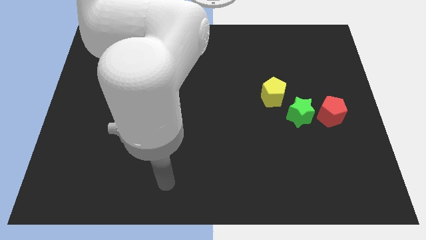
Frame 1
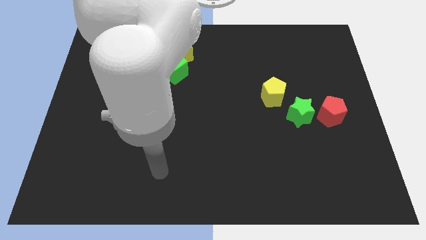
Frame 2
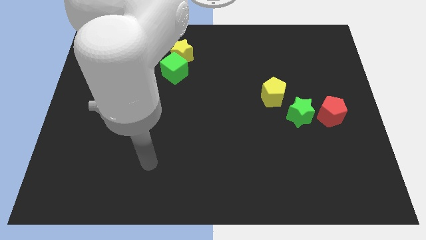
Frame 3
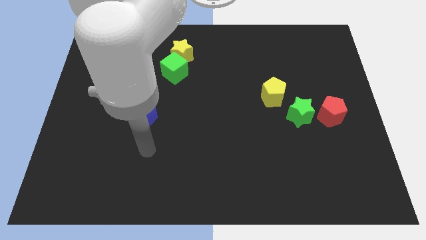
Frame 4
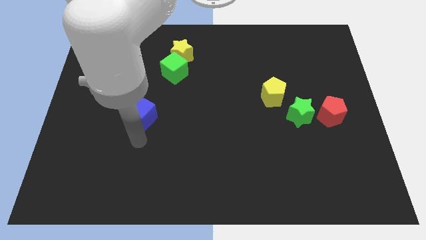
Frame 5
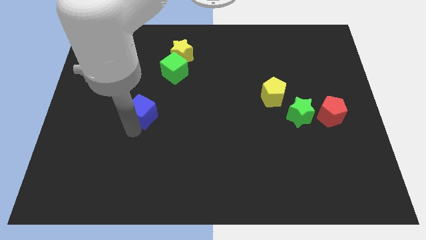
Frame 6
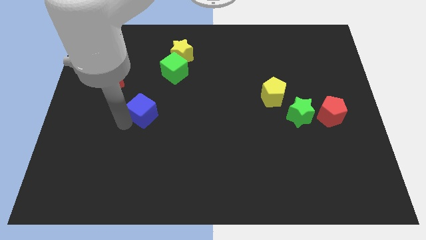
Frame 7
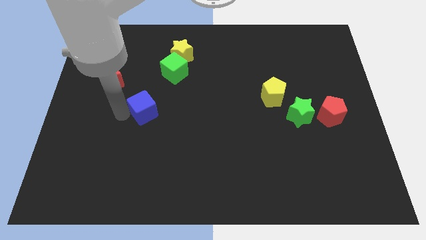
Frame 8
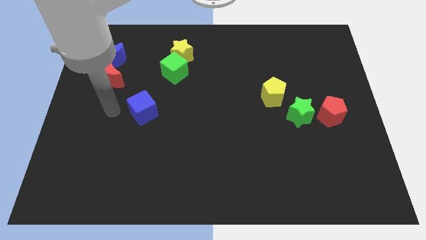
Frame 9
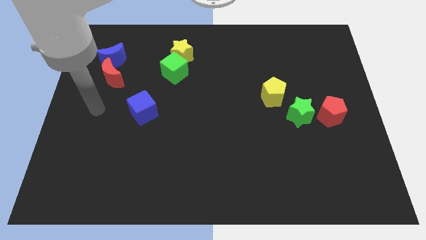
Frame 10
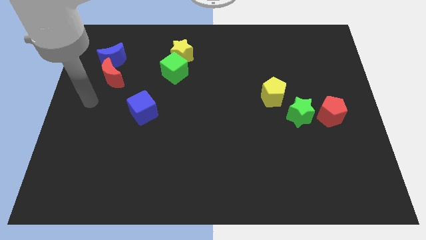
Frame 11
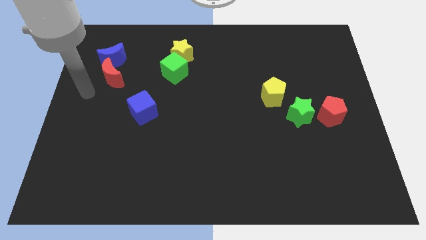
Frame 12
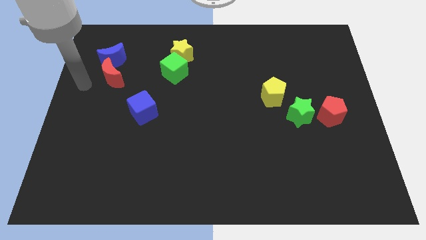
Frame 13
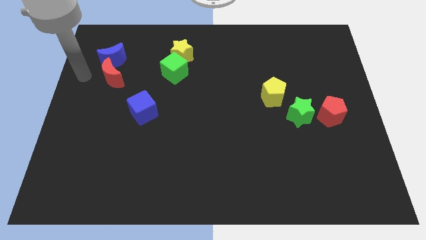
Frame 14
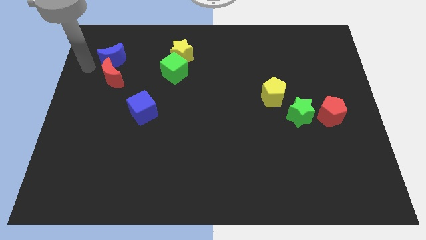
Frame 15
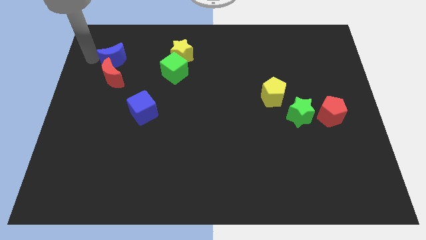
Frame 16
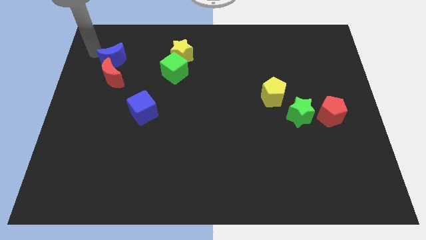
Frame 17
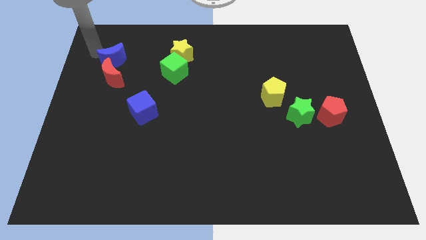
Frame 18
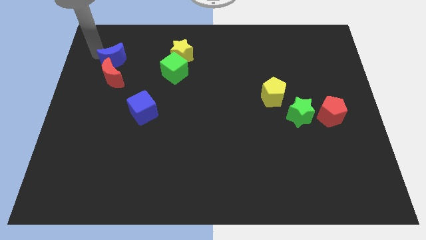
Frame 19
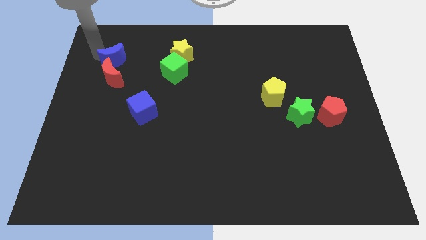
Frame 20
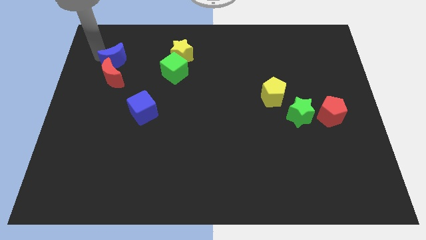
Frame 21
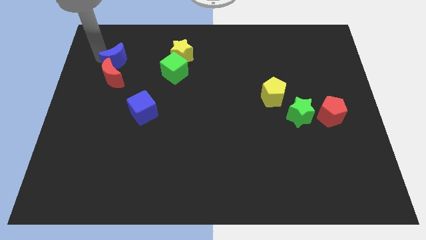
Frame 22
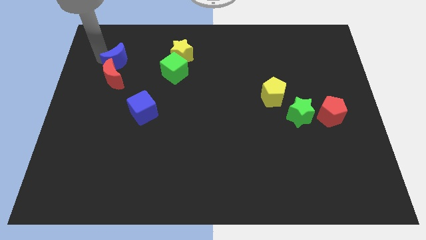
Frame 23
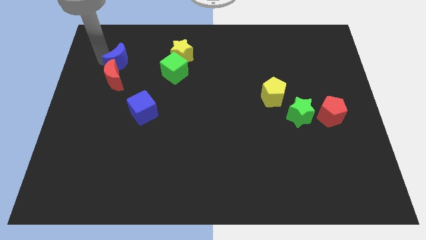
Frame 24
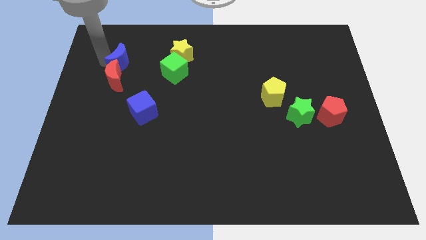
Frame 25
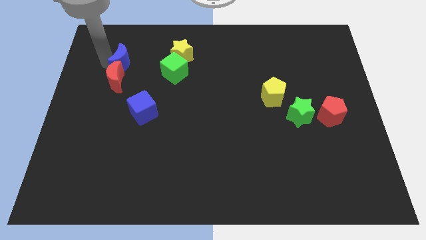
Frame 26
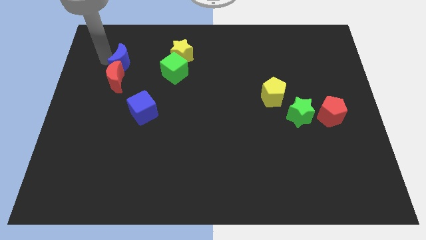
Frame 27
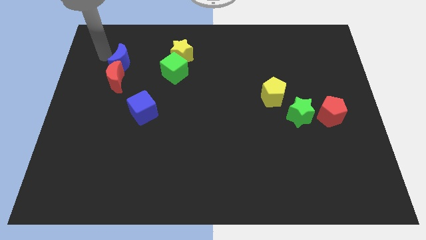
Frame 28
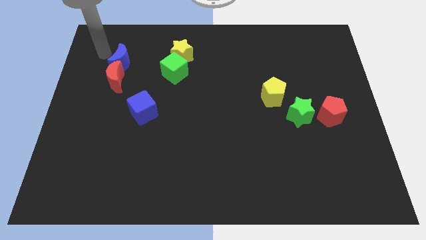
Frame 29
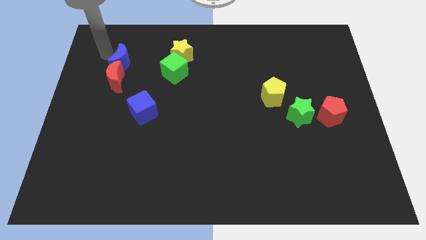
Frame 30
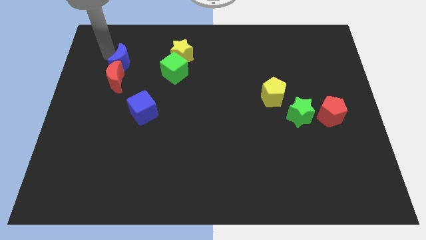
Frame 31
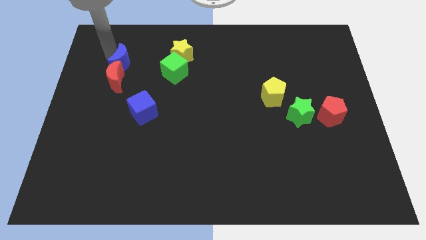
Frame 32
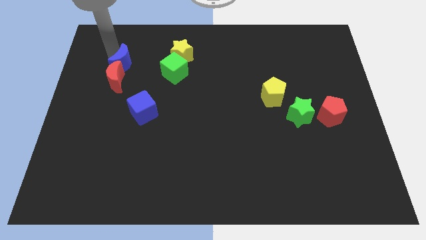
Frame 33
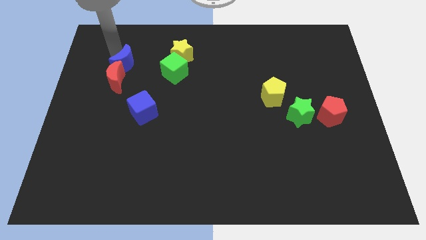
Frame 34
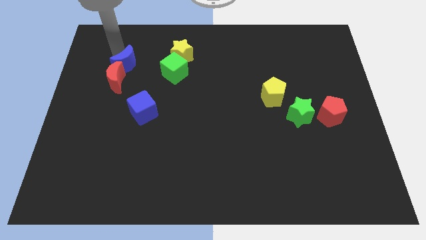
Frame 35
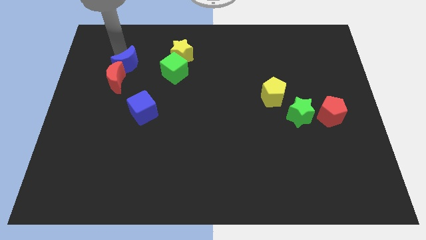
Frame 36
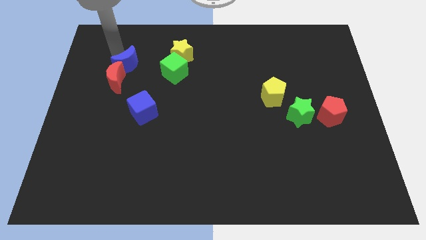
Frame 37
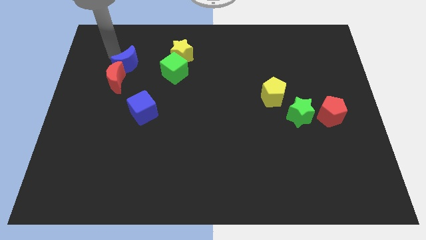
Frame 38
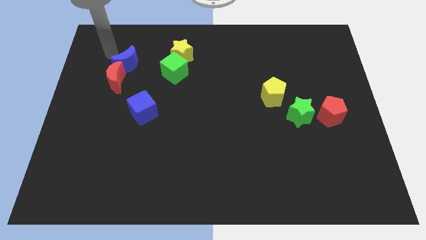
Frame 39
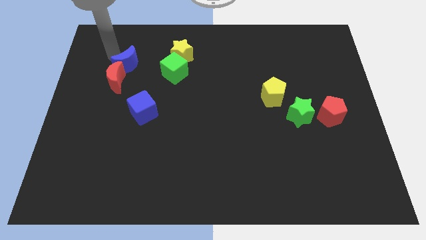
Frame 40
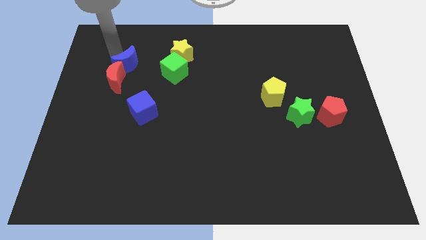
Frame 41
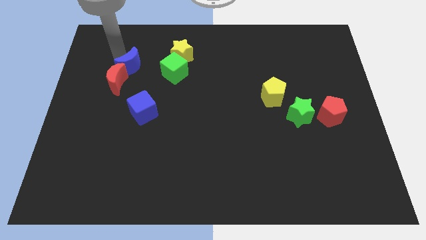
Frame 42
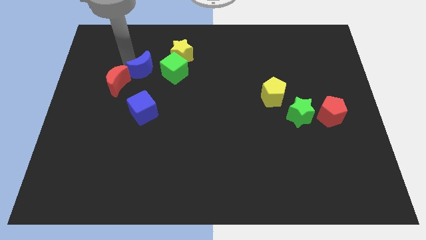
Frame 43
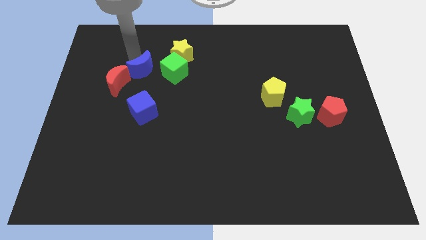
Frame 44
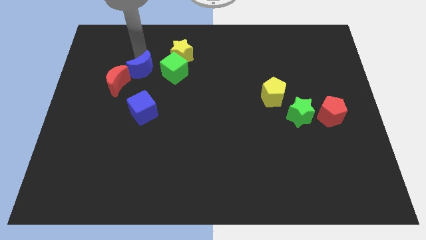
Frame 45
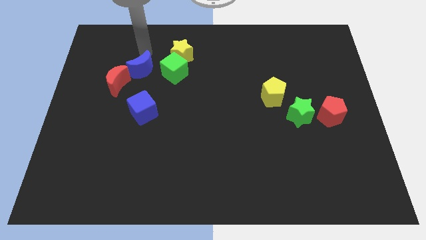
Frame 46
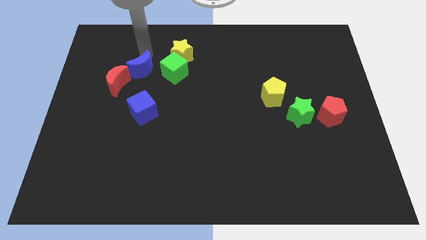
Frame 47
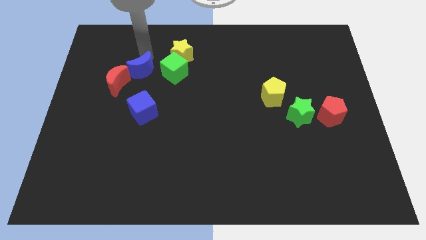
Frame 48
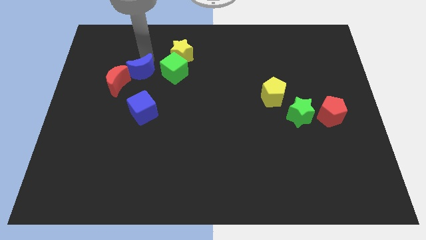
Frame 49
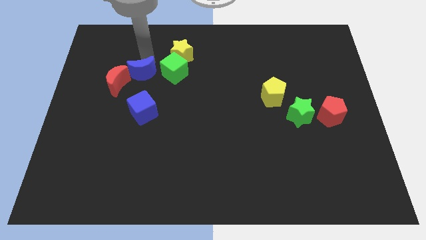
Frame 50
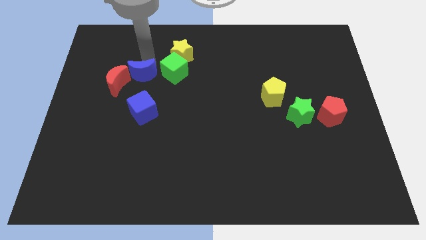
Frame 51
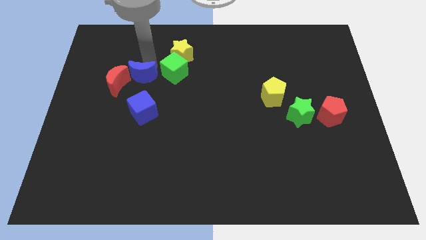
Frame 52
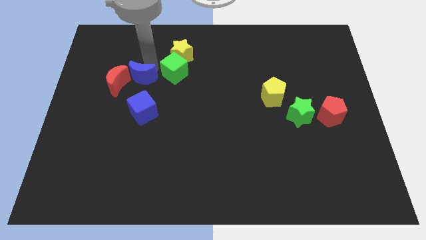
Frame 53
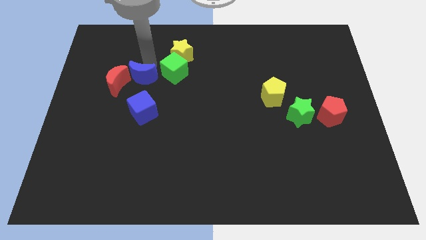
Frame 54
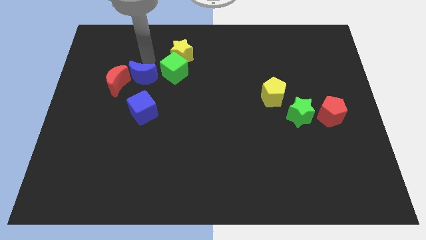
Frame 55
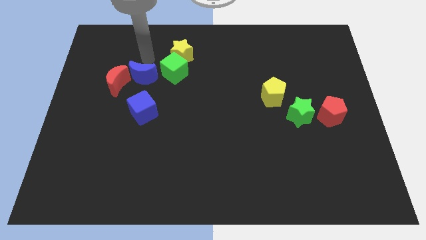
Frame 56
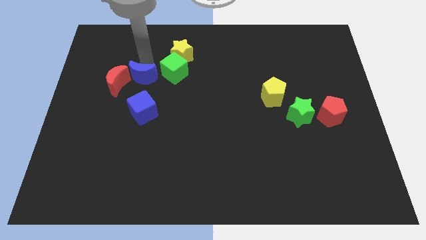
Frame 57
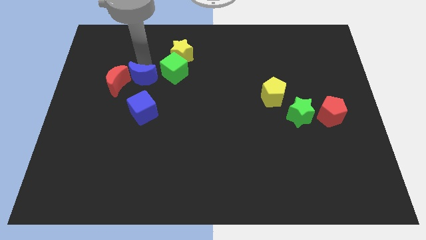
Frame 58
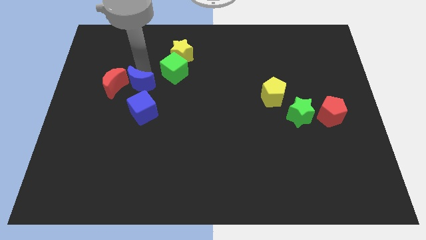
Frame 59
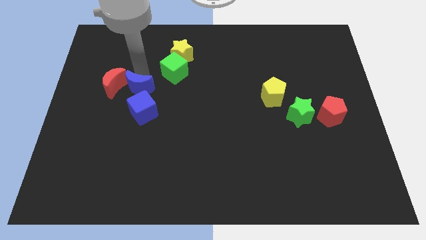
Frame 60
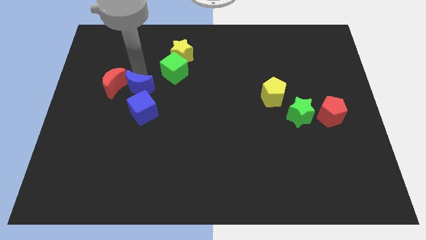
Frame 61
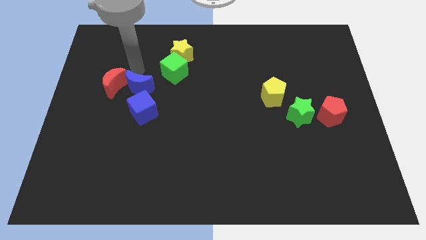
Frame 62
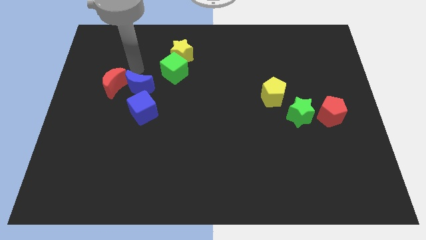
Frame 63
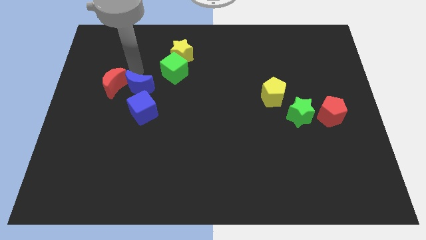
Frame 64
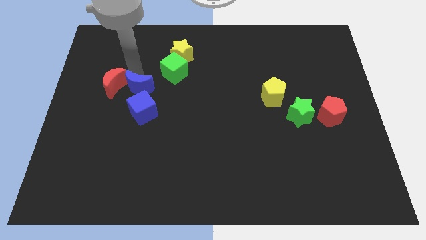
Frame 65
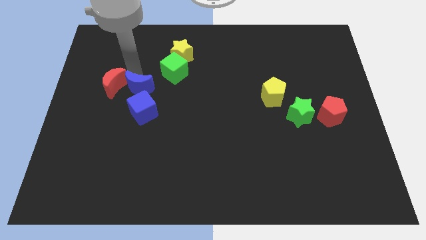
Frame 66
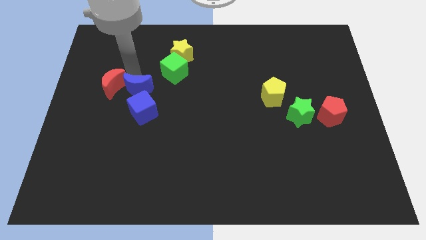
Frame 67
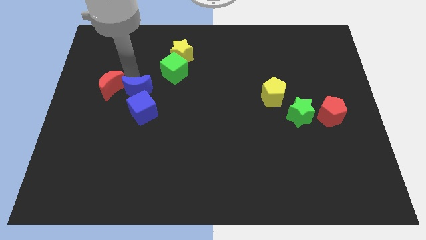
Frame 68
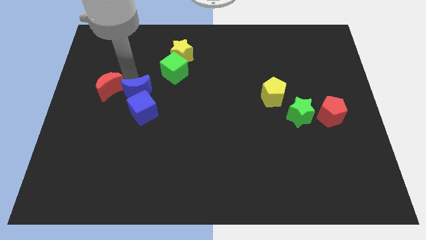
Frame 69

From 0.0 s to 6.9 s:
move the blue moon next to the blue cube

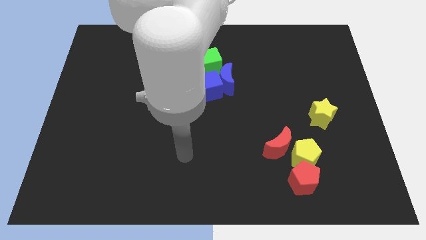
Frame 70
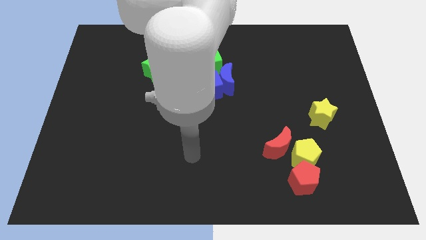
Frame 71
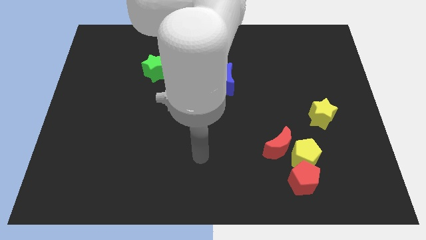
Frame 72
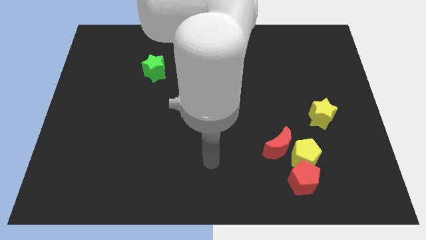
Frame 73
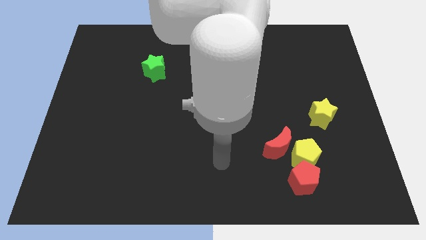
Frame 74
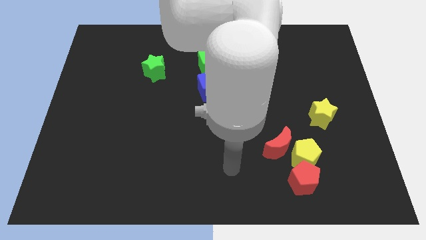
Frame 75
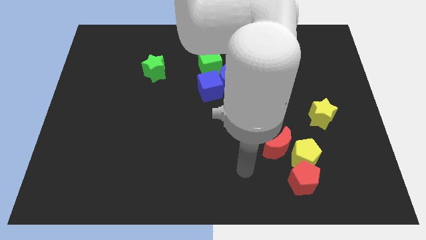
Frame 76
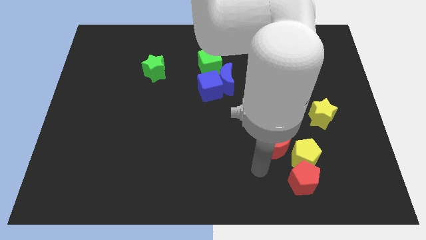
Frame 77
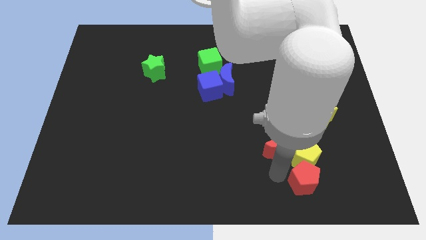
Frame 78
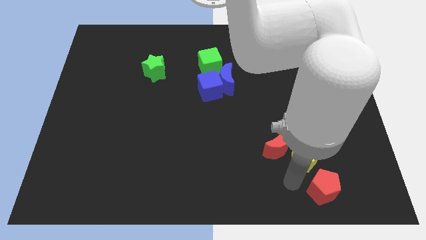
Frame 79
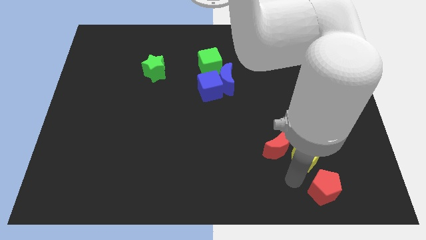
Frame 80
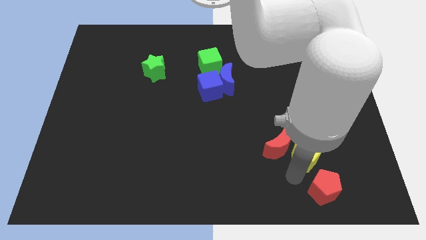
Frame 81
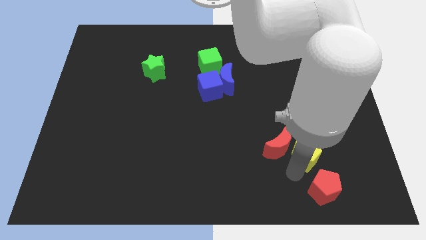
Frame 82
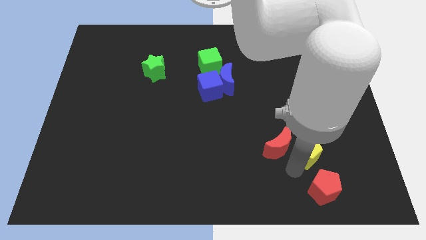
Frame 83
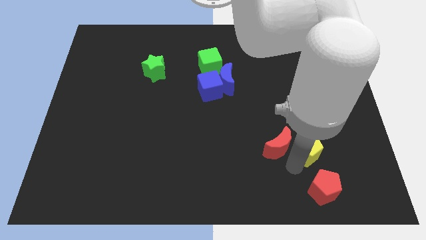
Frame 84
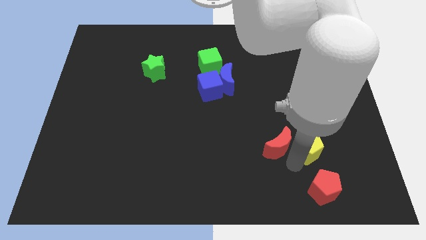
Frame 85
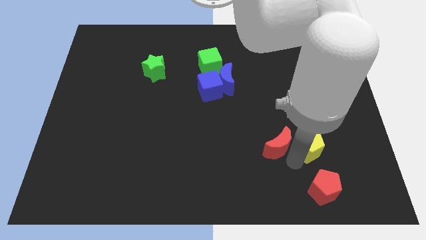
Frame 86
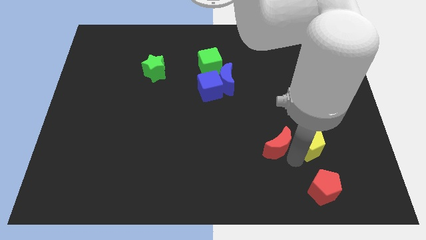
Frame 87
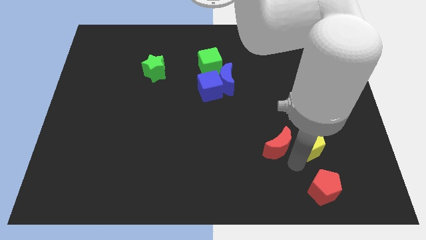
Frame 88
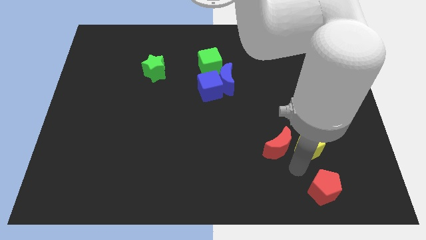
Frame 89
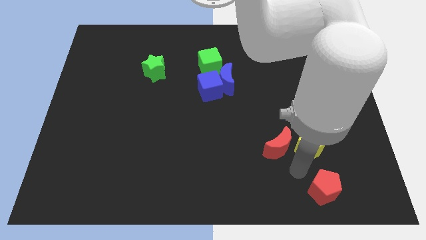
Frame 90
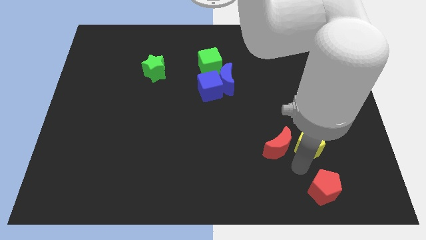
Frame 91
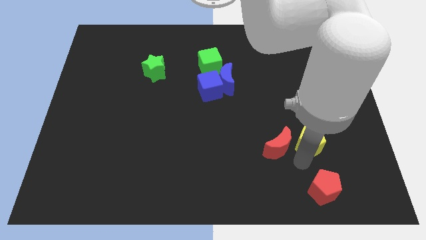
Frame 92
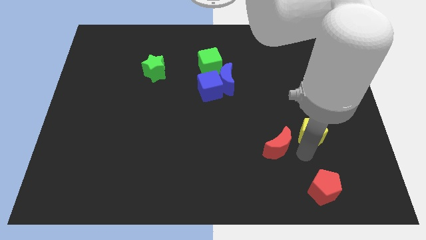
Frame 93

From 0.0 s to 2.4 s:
slide the yellow pentagon next to the yellow star
